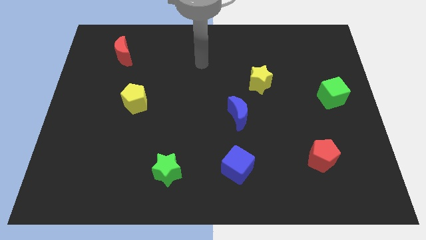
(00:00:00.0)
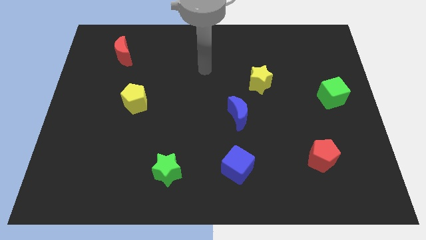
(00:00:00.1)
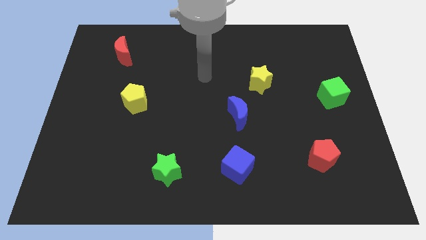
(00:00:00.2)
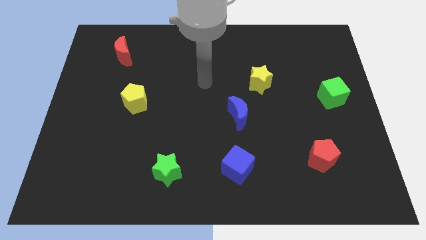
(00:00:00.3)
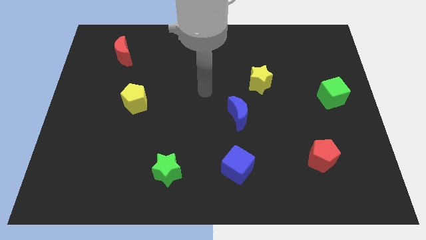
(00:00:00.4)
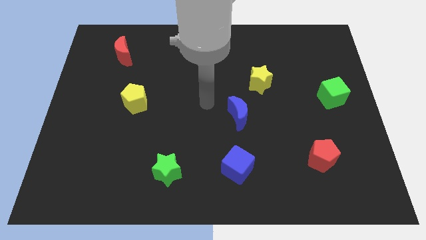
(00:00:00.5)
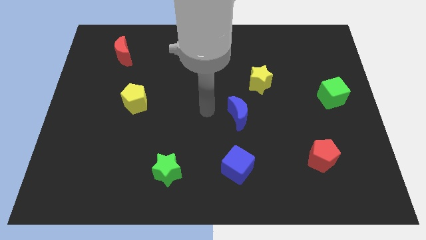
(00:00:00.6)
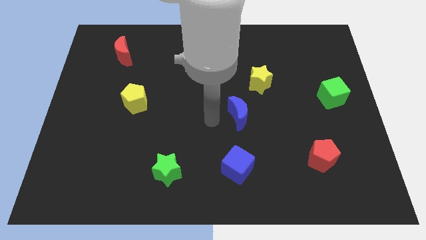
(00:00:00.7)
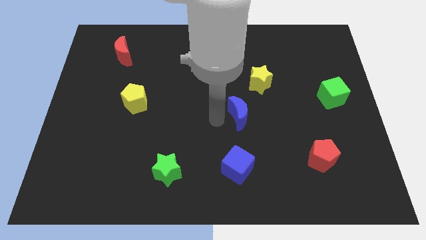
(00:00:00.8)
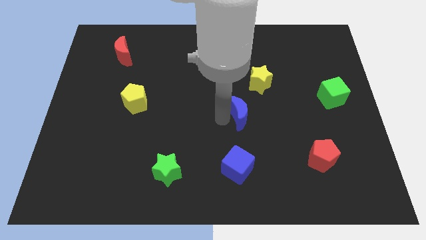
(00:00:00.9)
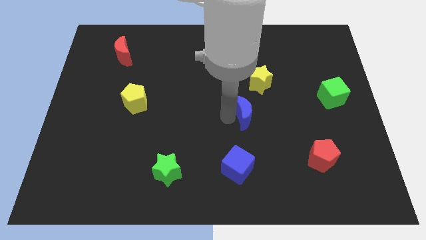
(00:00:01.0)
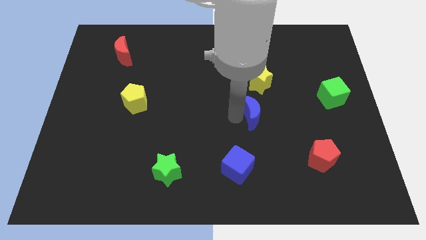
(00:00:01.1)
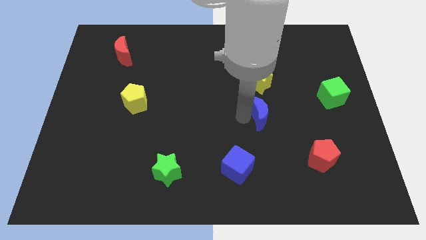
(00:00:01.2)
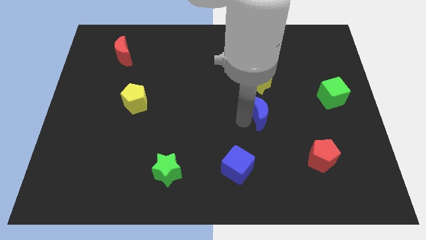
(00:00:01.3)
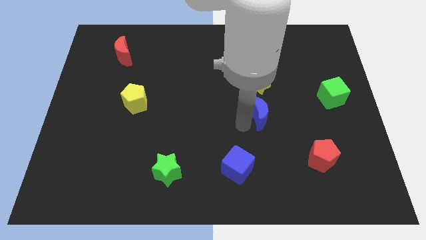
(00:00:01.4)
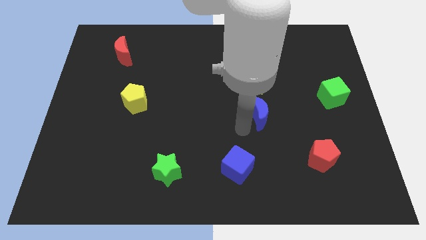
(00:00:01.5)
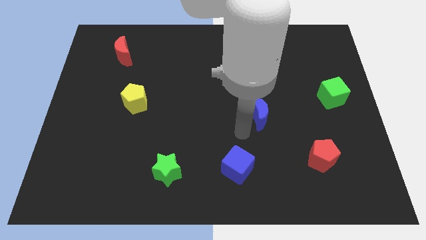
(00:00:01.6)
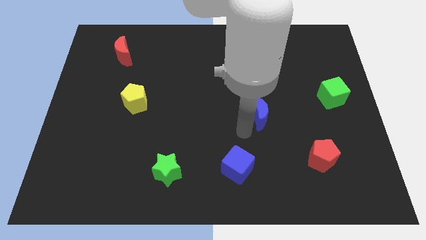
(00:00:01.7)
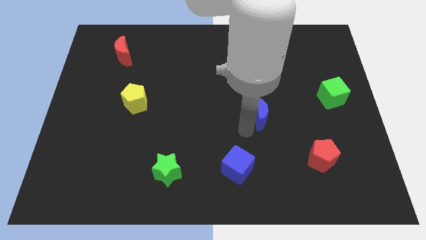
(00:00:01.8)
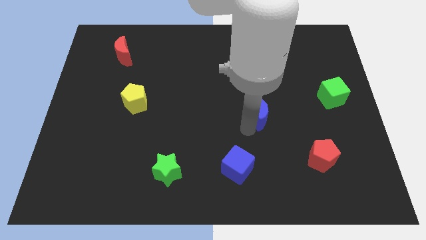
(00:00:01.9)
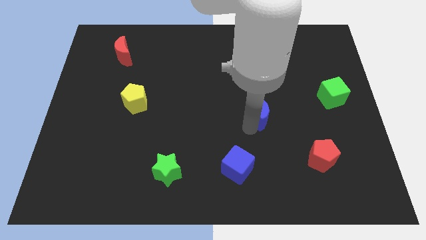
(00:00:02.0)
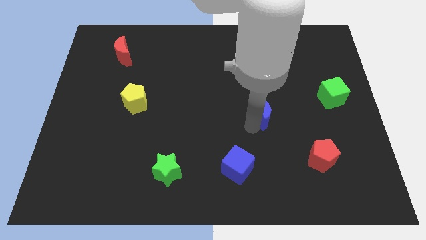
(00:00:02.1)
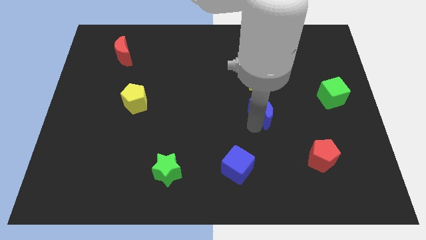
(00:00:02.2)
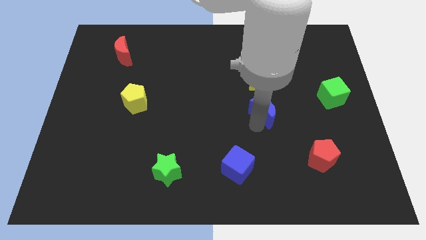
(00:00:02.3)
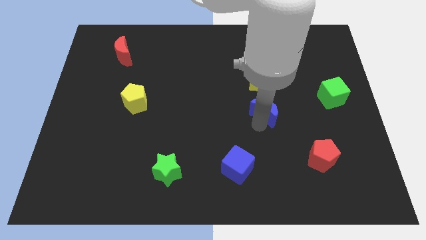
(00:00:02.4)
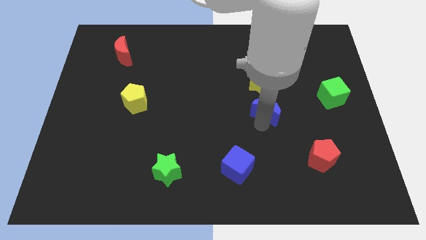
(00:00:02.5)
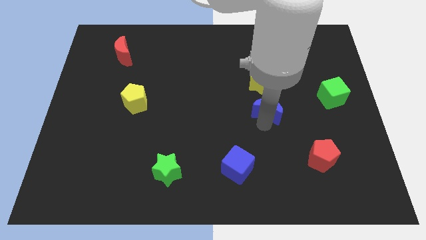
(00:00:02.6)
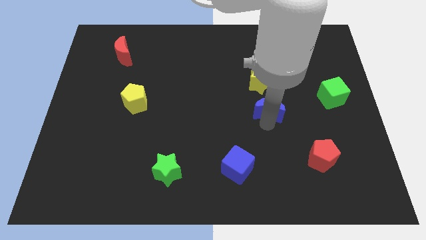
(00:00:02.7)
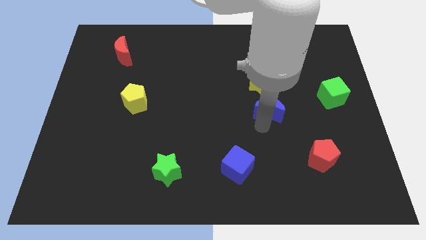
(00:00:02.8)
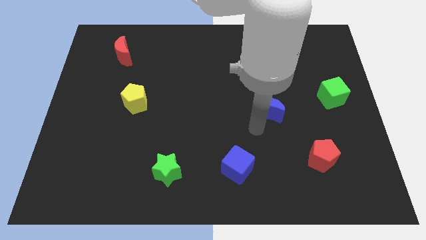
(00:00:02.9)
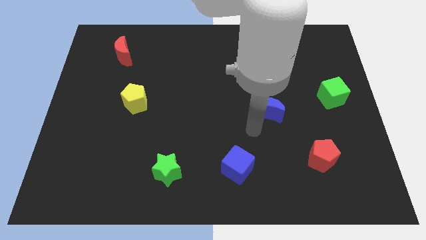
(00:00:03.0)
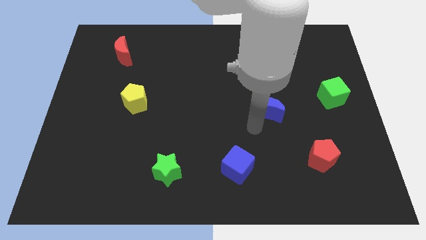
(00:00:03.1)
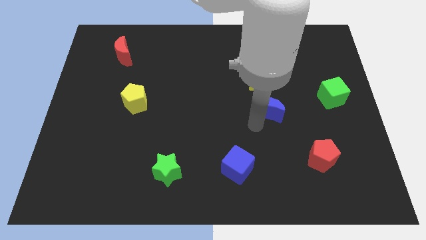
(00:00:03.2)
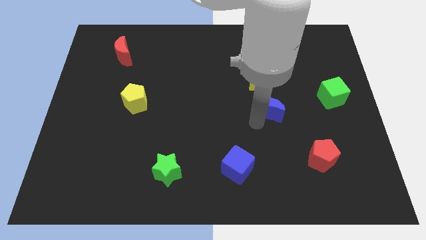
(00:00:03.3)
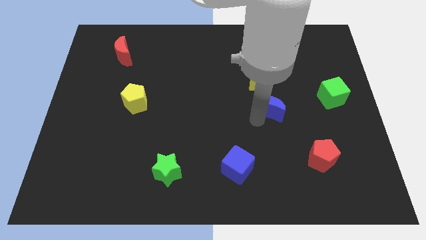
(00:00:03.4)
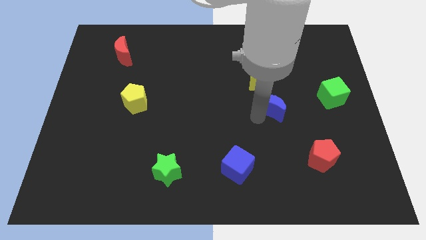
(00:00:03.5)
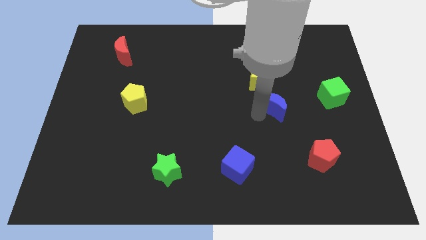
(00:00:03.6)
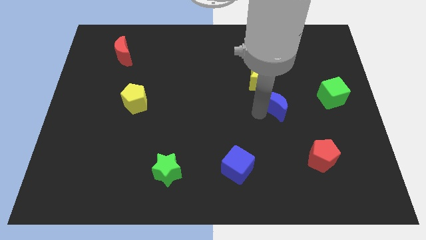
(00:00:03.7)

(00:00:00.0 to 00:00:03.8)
push the blue moon a little up and to the right

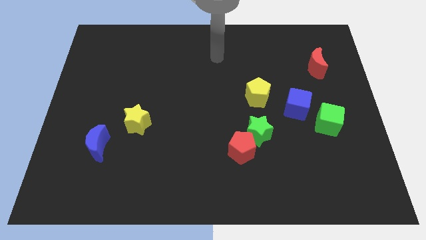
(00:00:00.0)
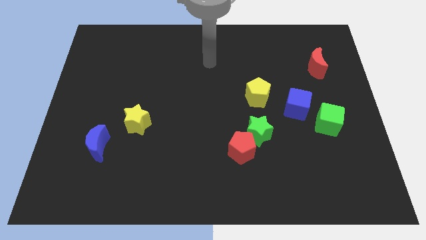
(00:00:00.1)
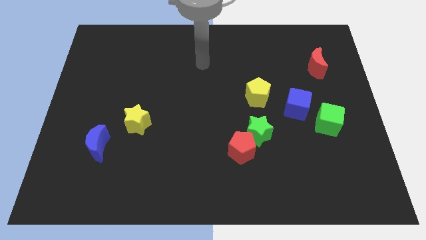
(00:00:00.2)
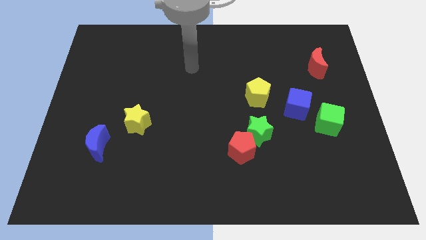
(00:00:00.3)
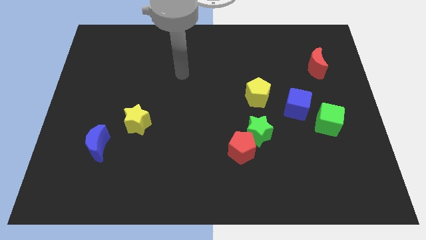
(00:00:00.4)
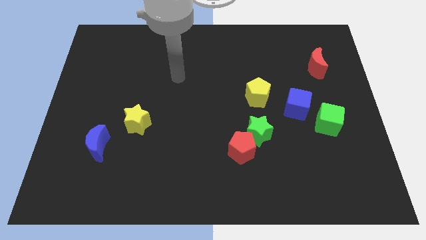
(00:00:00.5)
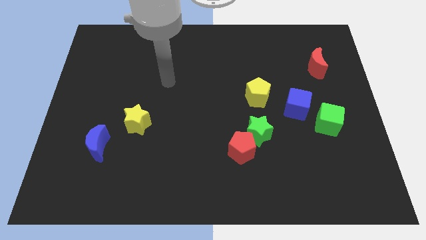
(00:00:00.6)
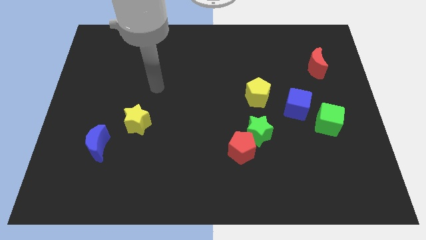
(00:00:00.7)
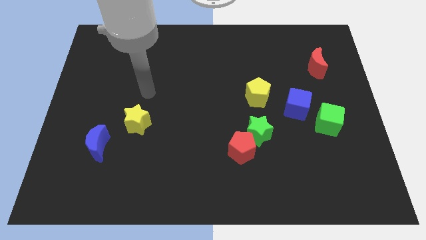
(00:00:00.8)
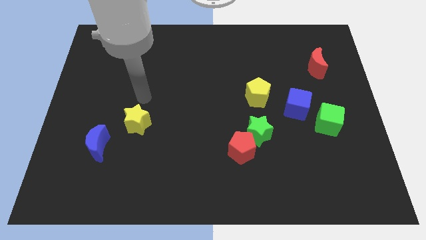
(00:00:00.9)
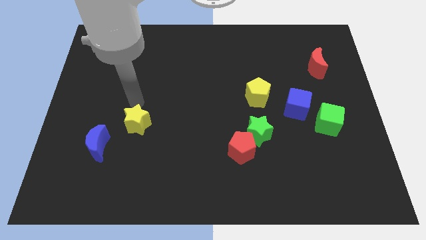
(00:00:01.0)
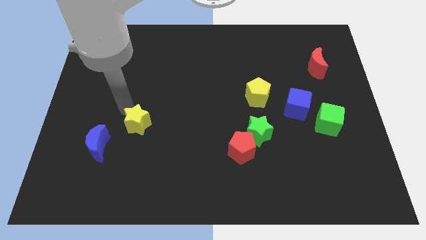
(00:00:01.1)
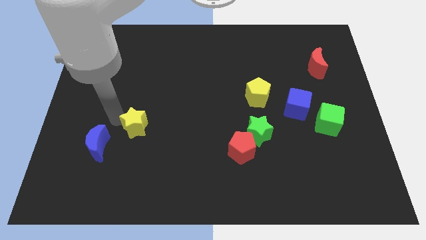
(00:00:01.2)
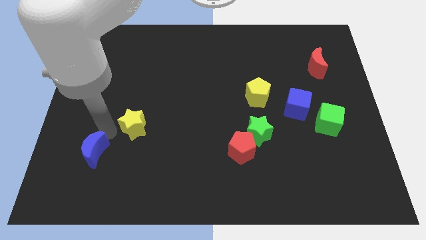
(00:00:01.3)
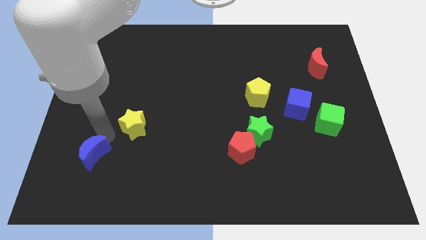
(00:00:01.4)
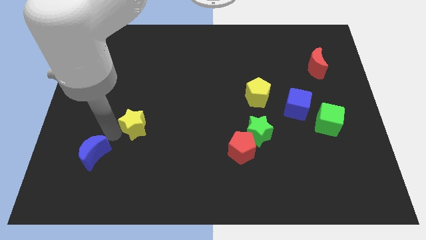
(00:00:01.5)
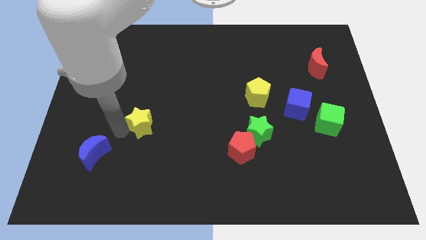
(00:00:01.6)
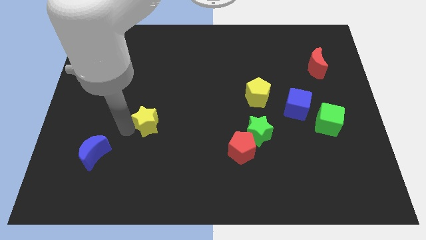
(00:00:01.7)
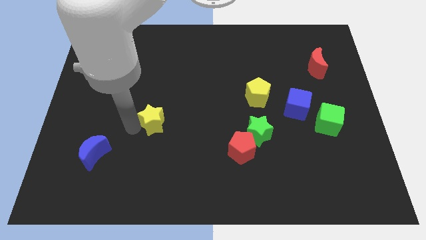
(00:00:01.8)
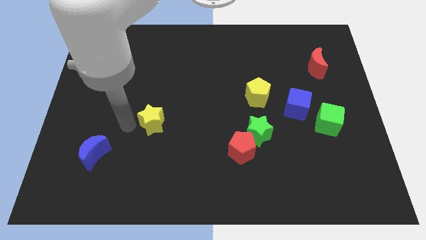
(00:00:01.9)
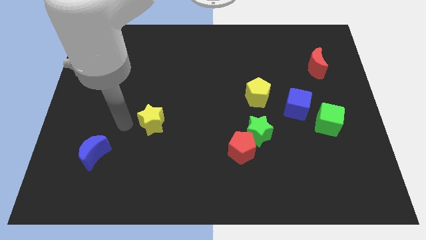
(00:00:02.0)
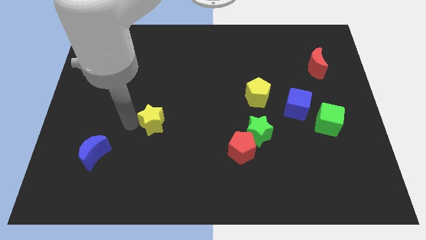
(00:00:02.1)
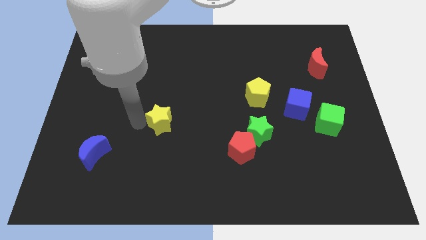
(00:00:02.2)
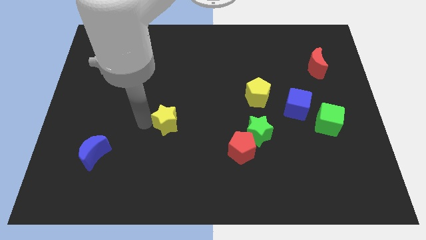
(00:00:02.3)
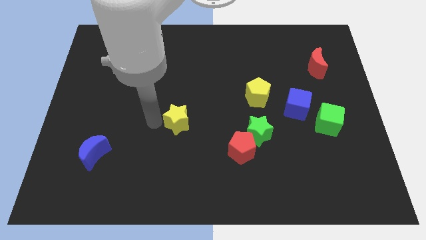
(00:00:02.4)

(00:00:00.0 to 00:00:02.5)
move the yellow star to the right a little bit

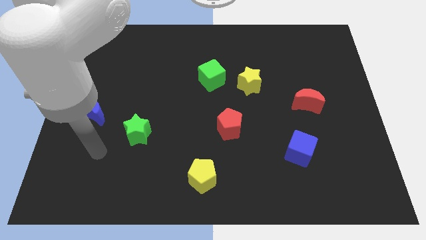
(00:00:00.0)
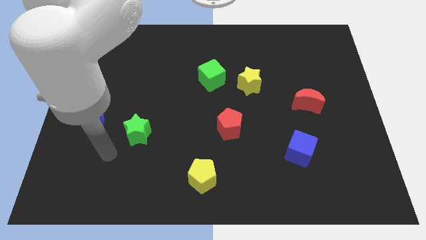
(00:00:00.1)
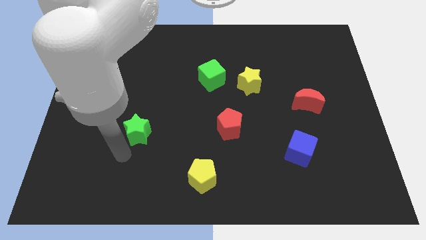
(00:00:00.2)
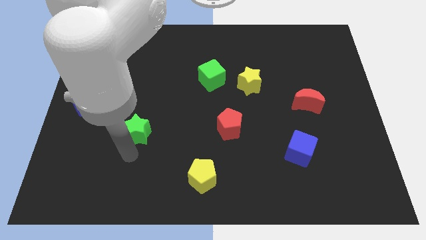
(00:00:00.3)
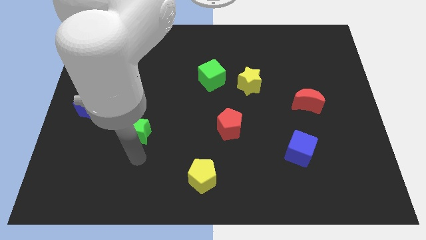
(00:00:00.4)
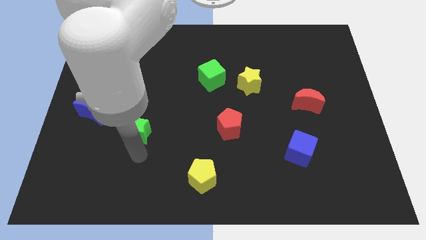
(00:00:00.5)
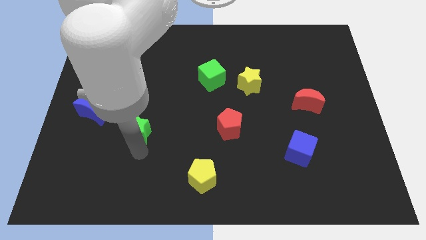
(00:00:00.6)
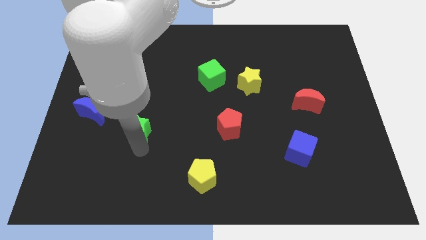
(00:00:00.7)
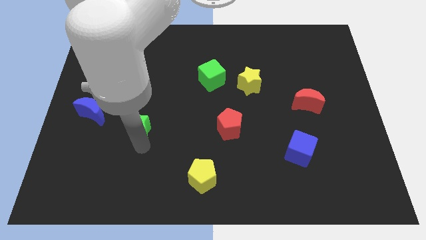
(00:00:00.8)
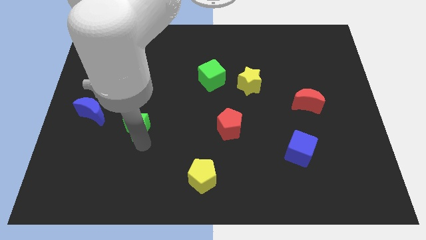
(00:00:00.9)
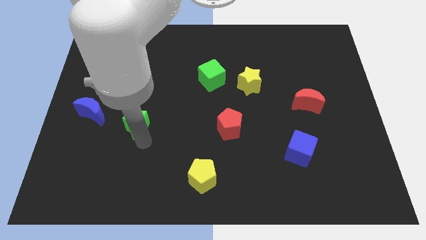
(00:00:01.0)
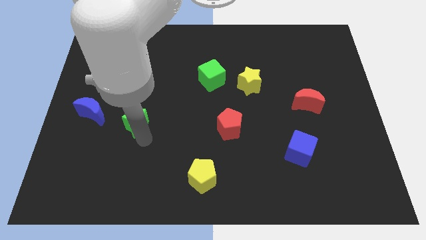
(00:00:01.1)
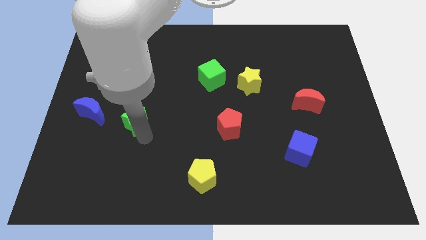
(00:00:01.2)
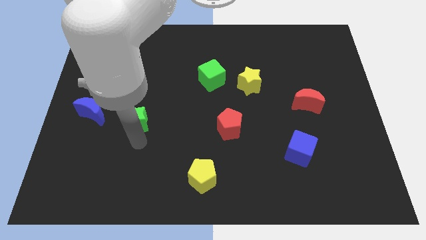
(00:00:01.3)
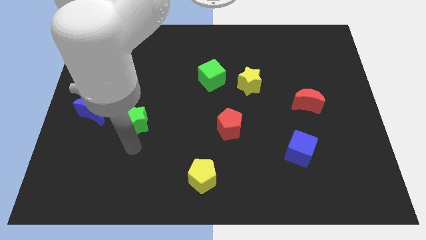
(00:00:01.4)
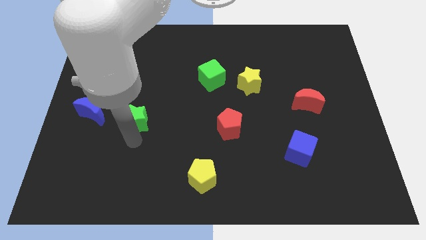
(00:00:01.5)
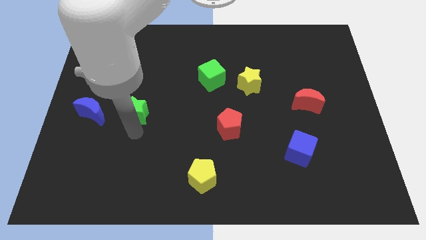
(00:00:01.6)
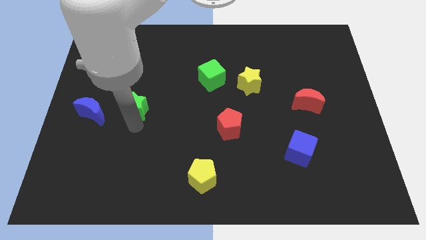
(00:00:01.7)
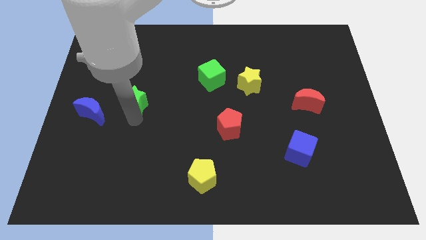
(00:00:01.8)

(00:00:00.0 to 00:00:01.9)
slightly push the green star upwards
